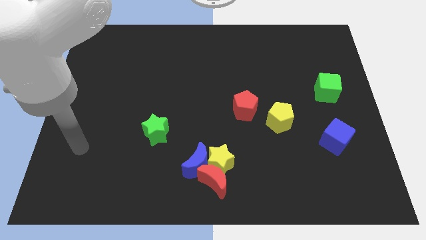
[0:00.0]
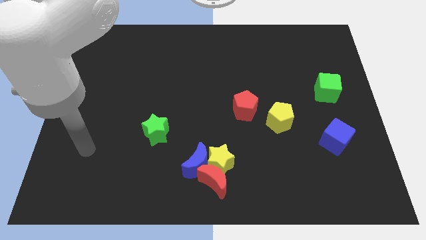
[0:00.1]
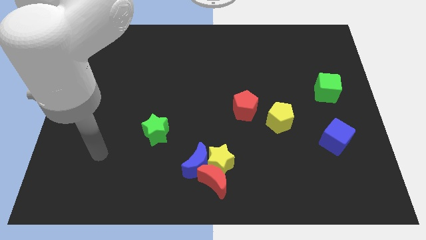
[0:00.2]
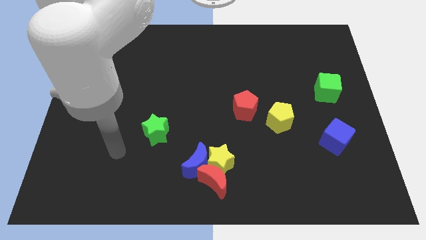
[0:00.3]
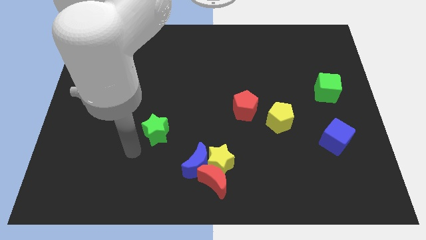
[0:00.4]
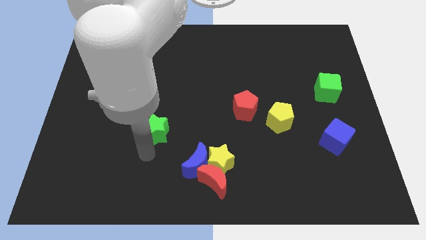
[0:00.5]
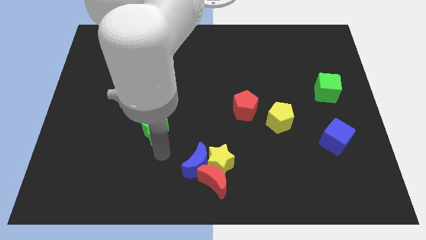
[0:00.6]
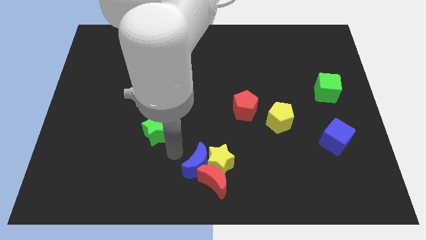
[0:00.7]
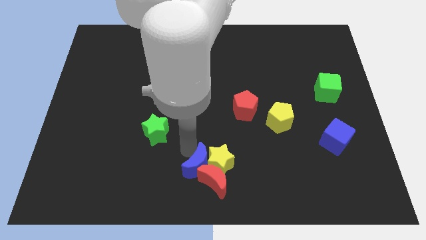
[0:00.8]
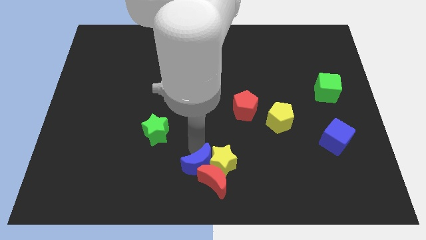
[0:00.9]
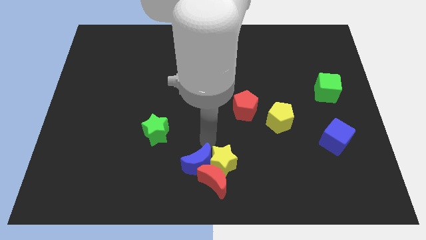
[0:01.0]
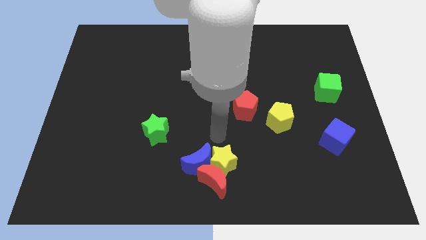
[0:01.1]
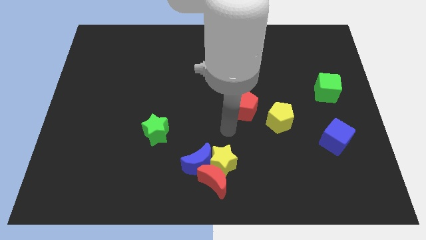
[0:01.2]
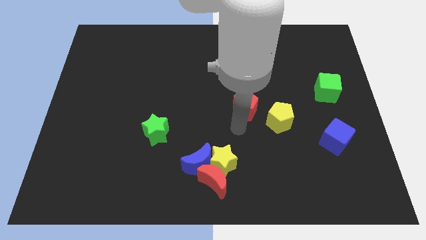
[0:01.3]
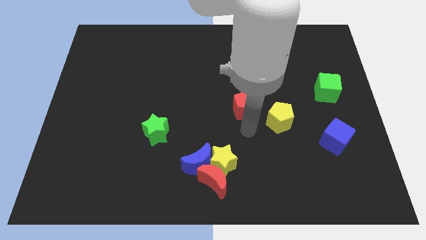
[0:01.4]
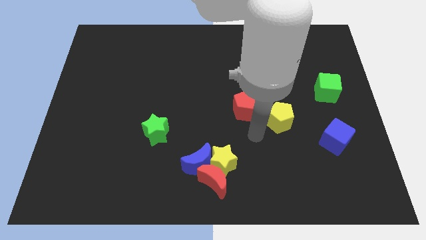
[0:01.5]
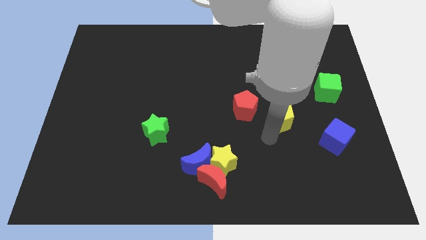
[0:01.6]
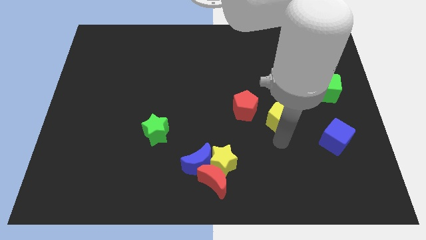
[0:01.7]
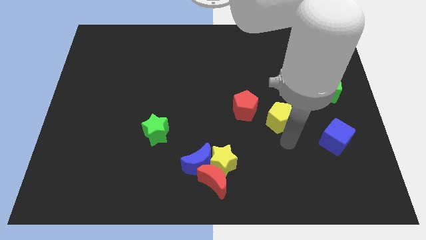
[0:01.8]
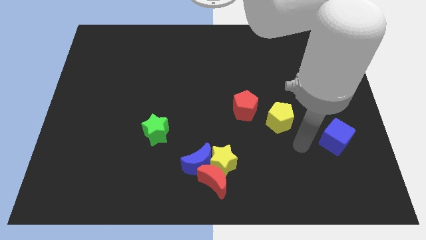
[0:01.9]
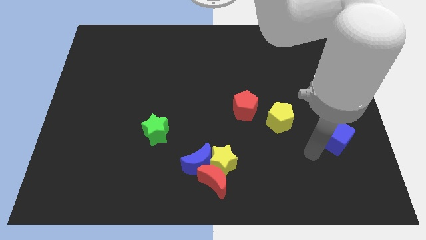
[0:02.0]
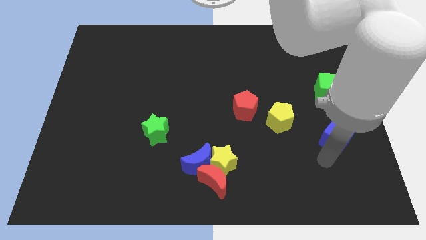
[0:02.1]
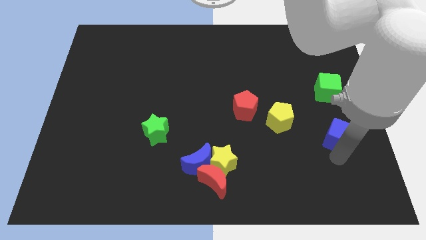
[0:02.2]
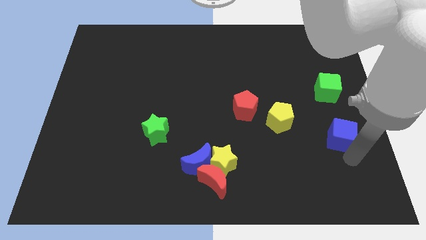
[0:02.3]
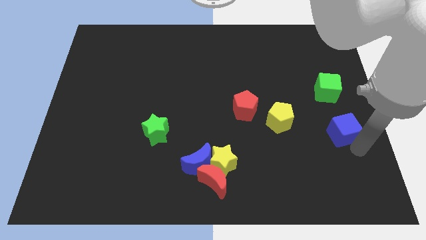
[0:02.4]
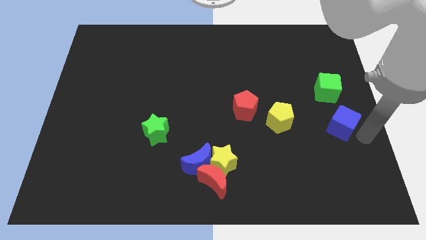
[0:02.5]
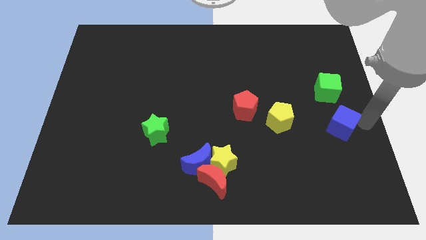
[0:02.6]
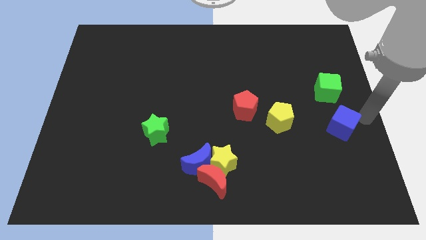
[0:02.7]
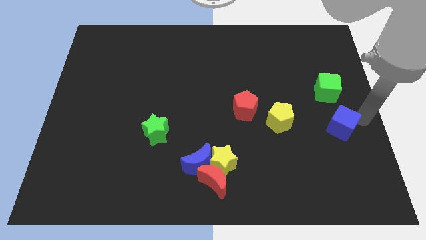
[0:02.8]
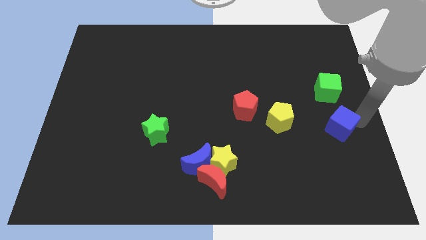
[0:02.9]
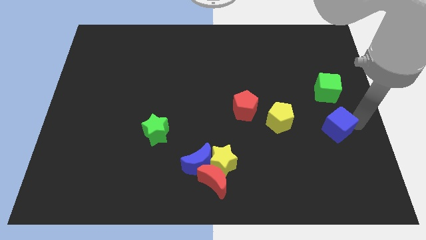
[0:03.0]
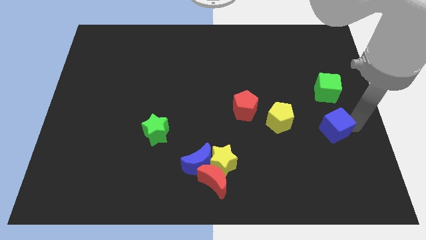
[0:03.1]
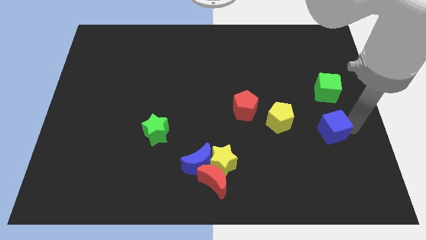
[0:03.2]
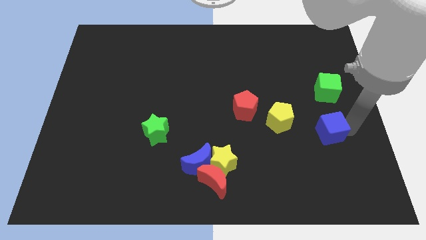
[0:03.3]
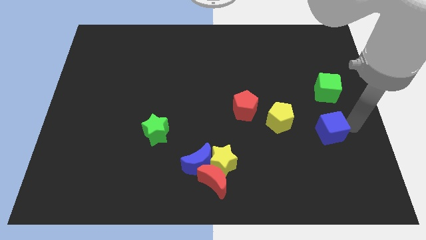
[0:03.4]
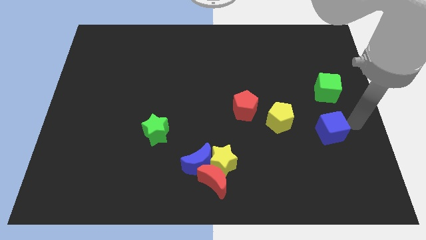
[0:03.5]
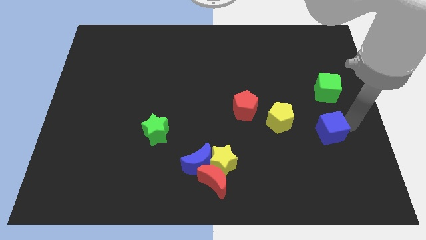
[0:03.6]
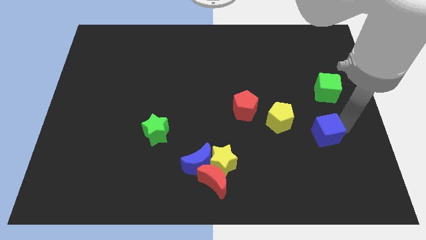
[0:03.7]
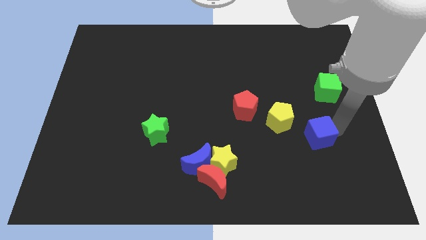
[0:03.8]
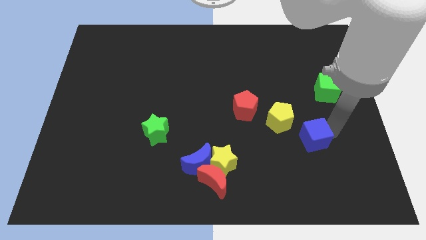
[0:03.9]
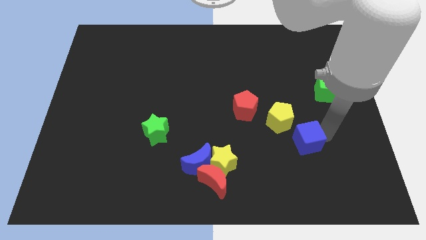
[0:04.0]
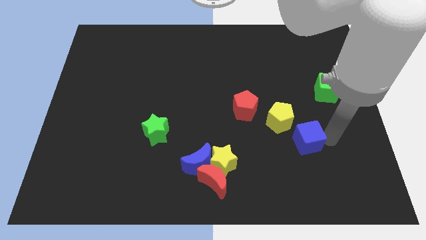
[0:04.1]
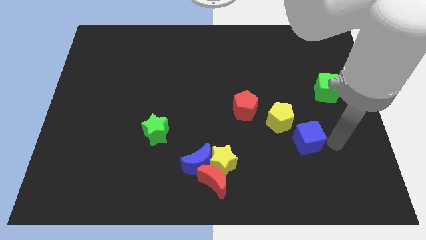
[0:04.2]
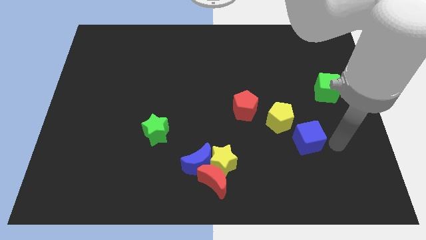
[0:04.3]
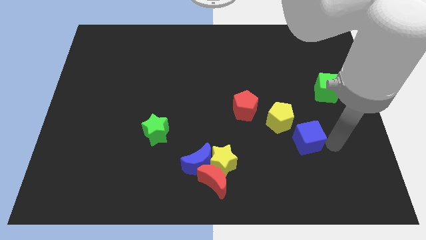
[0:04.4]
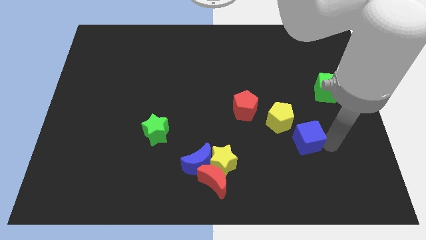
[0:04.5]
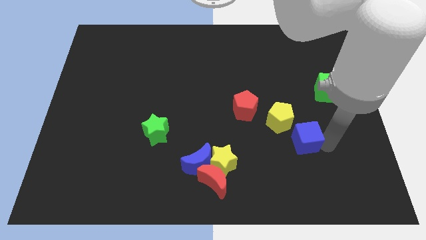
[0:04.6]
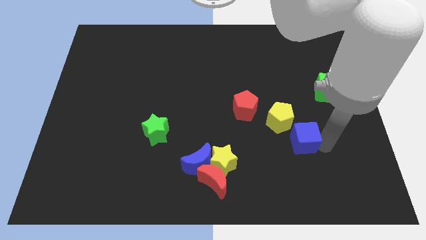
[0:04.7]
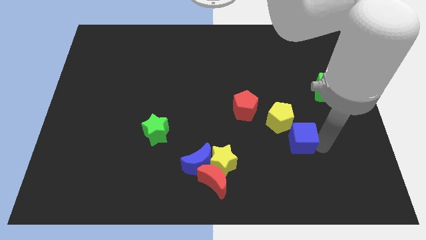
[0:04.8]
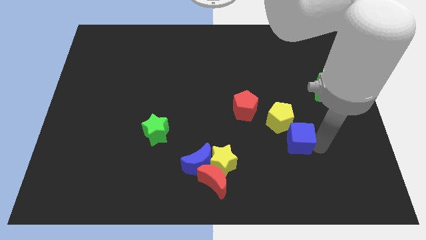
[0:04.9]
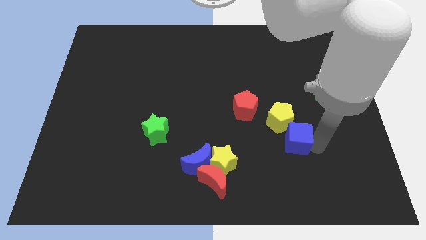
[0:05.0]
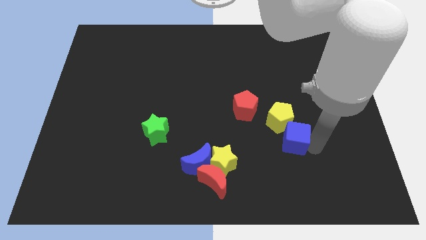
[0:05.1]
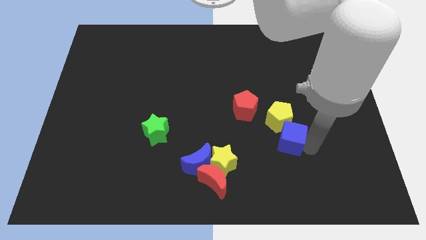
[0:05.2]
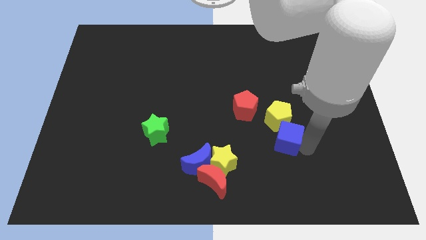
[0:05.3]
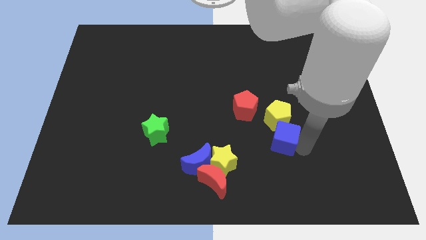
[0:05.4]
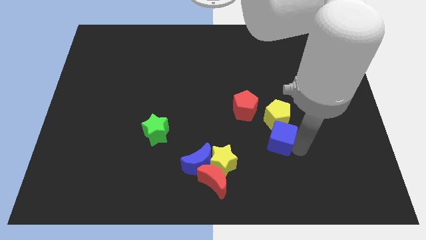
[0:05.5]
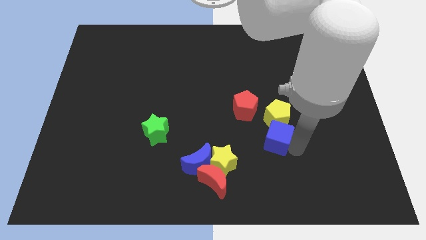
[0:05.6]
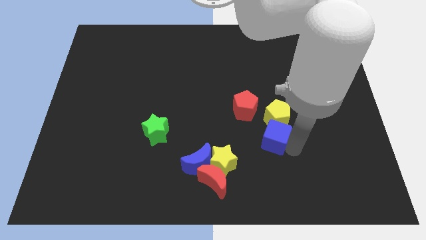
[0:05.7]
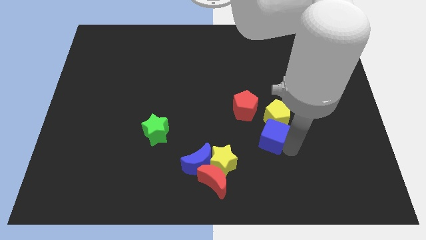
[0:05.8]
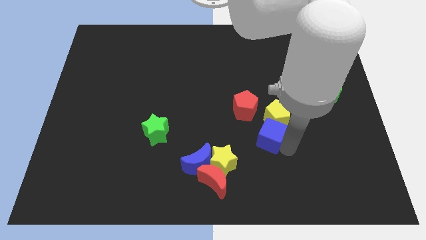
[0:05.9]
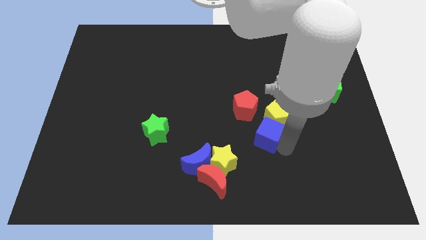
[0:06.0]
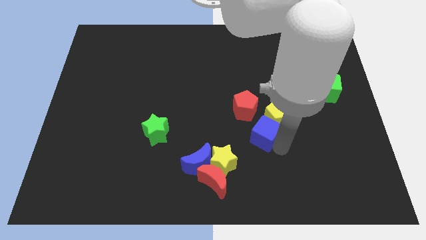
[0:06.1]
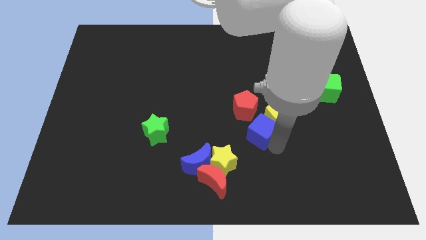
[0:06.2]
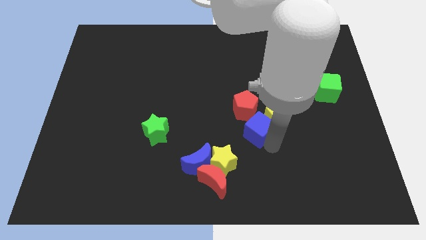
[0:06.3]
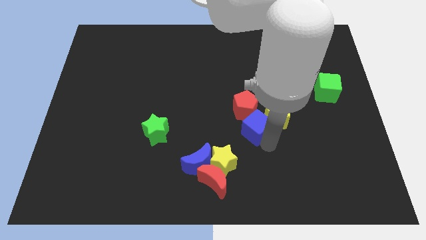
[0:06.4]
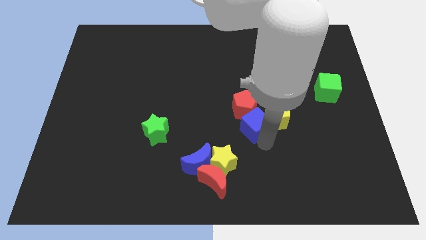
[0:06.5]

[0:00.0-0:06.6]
put the blue cube close to the red pentagon

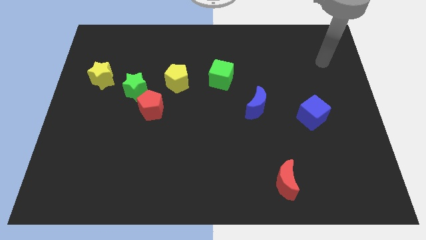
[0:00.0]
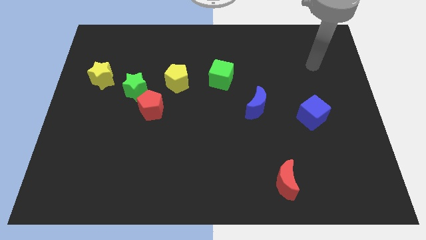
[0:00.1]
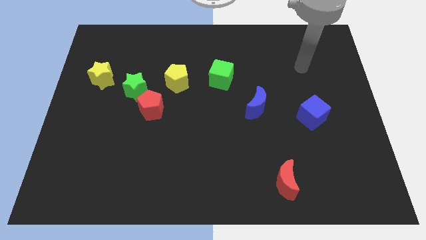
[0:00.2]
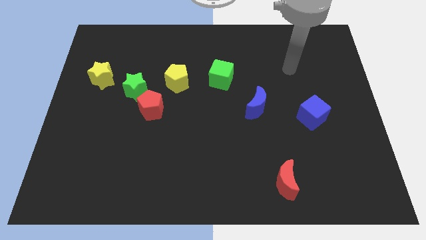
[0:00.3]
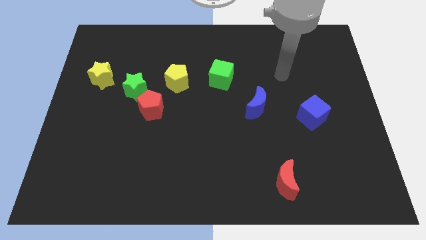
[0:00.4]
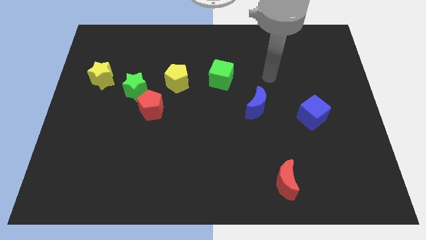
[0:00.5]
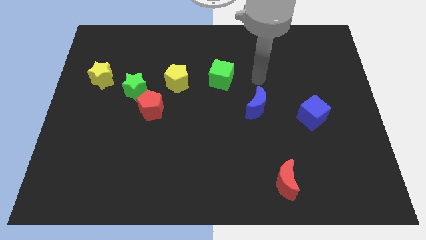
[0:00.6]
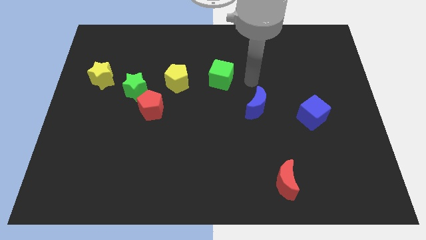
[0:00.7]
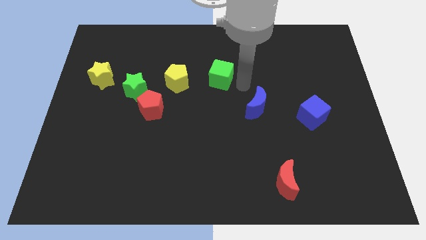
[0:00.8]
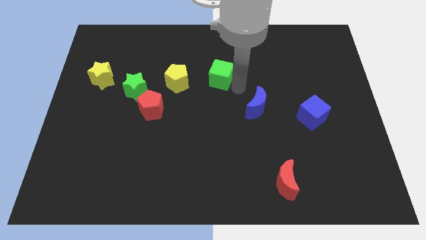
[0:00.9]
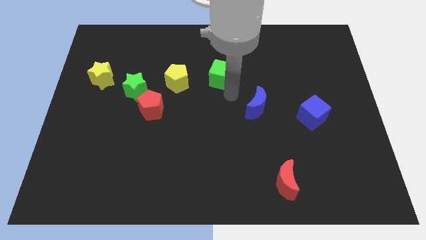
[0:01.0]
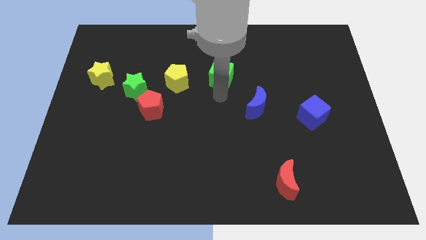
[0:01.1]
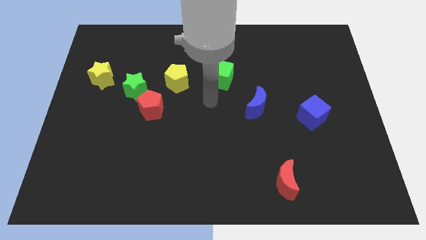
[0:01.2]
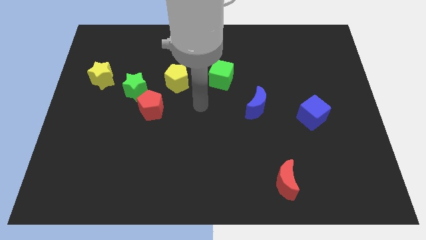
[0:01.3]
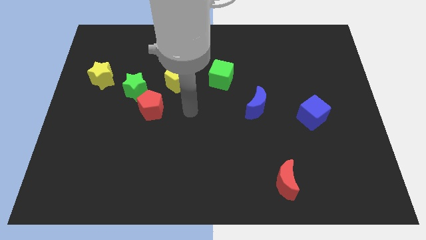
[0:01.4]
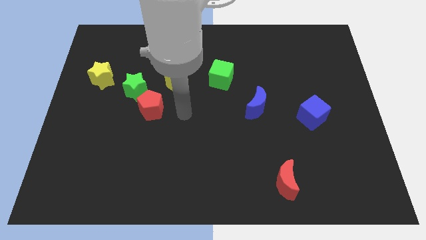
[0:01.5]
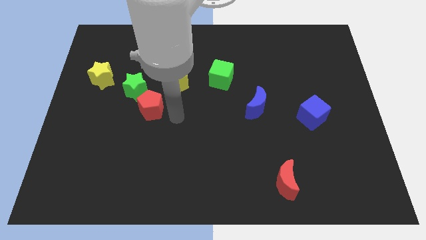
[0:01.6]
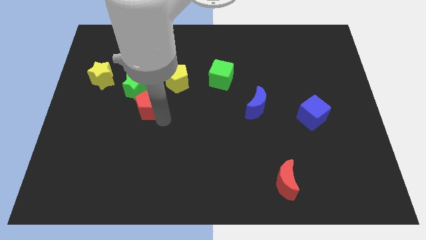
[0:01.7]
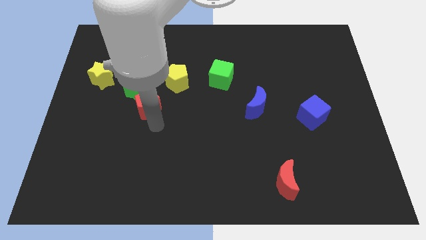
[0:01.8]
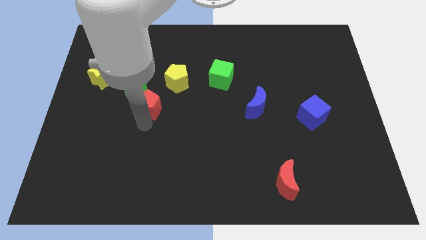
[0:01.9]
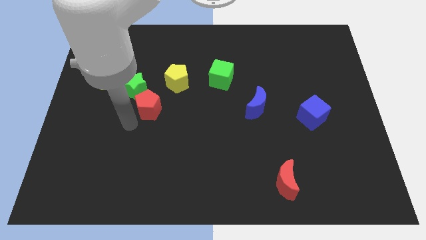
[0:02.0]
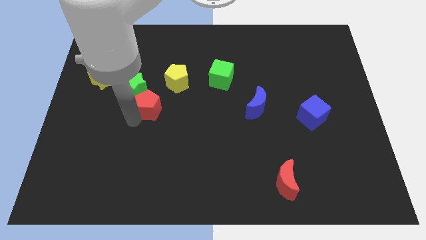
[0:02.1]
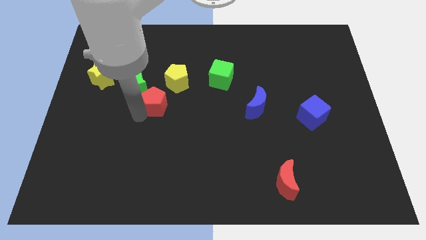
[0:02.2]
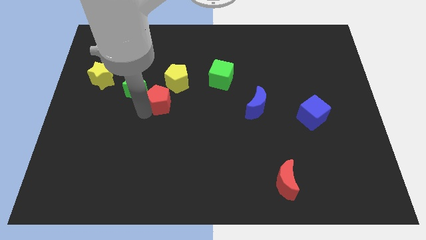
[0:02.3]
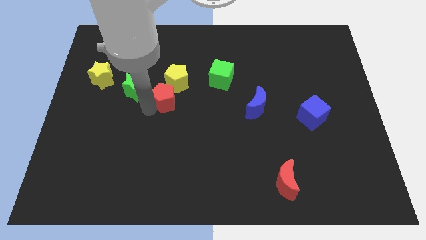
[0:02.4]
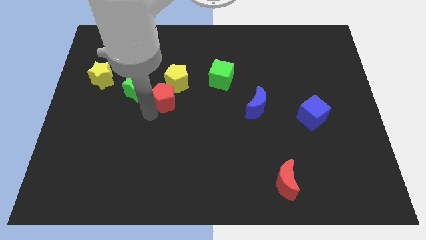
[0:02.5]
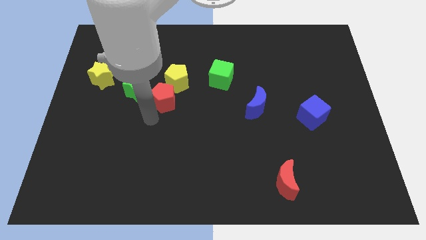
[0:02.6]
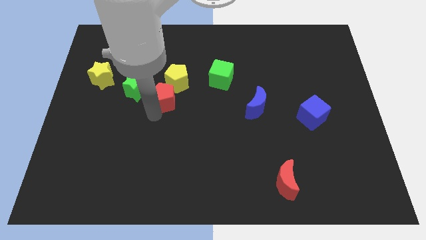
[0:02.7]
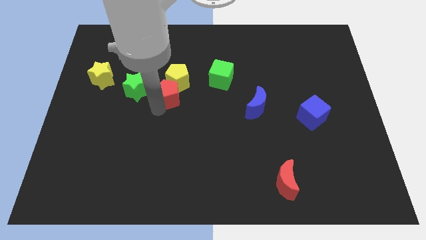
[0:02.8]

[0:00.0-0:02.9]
move the red pentagon close to the yellow pentagon
